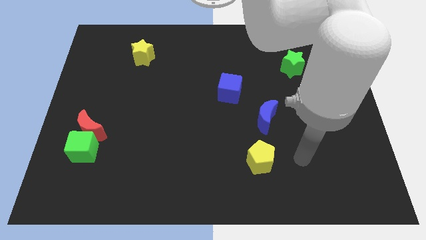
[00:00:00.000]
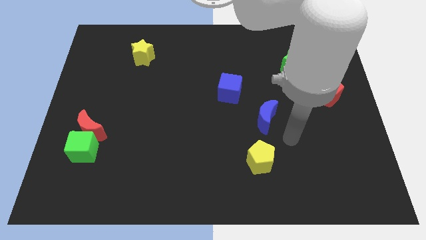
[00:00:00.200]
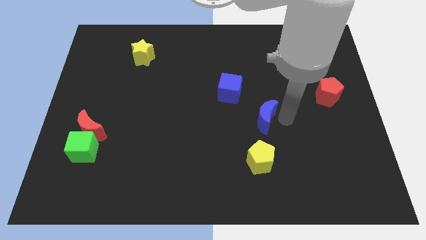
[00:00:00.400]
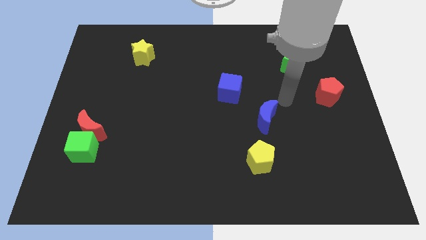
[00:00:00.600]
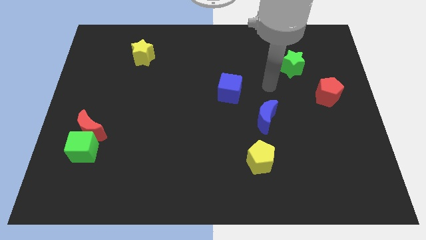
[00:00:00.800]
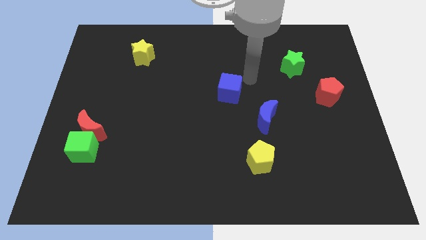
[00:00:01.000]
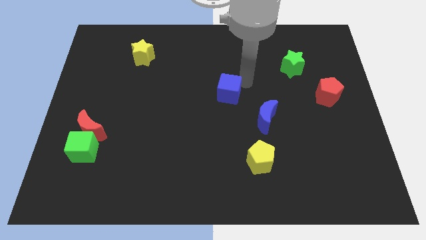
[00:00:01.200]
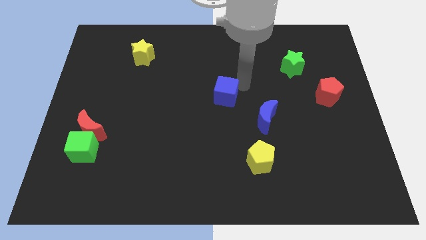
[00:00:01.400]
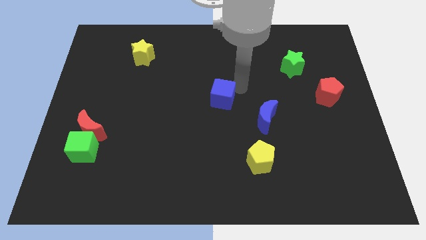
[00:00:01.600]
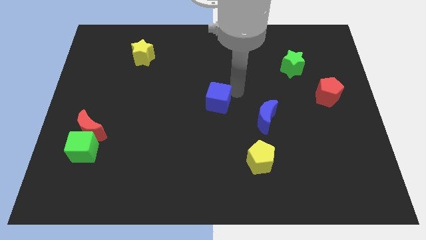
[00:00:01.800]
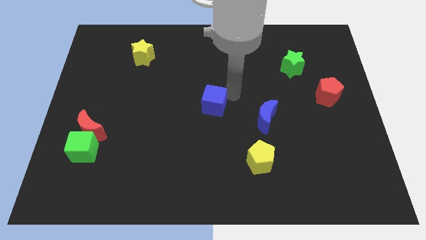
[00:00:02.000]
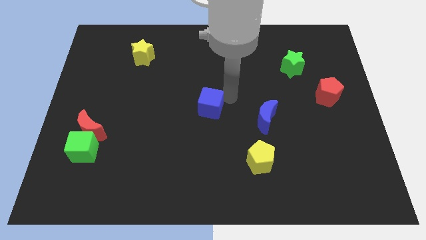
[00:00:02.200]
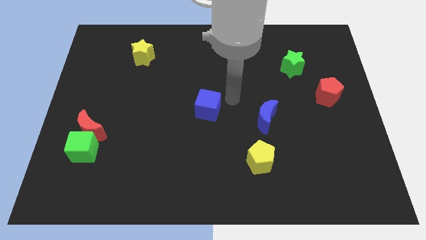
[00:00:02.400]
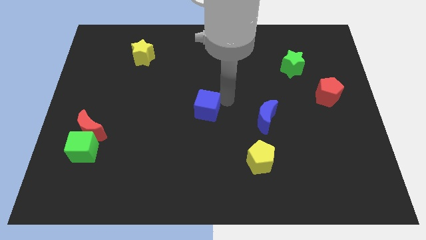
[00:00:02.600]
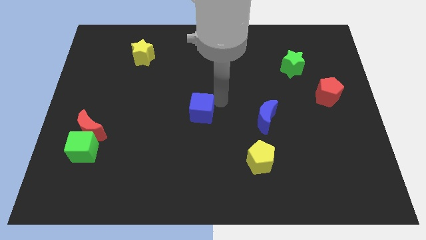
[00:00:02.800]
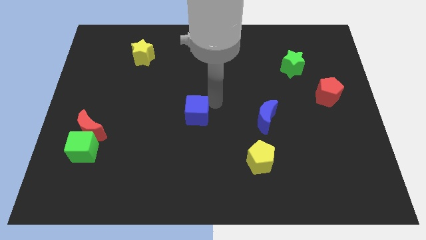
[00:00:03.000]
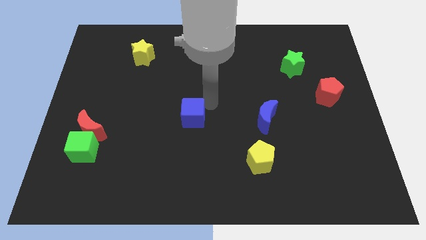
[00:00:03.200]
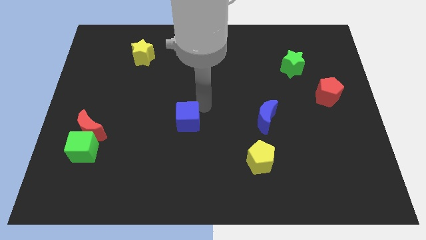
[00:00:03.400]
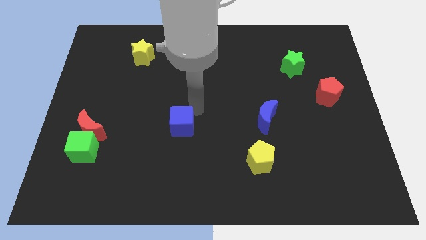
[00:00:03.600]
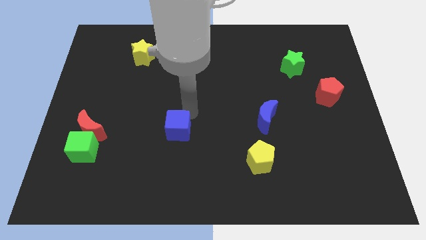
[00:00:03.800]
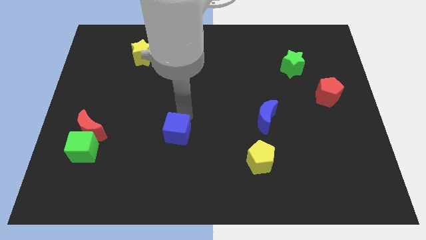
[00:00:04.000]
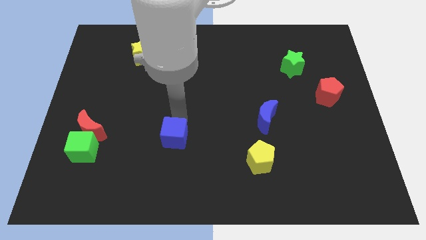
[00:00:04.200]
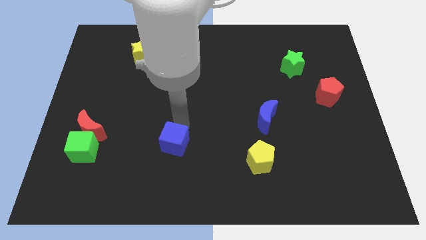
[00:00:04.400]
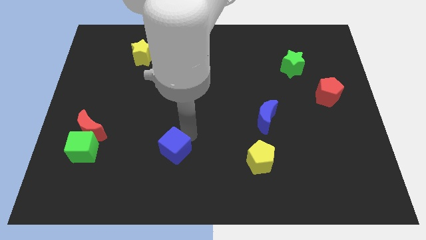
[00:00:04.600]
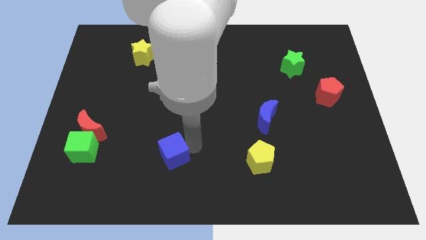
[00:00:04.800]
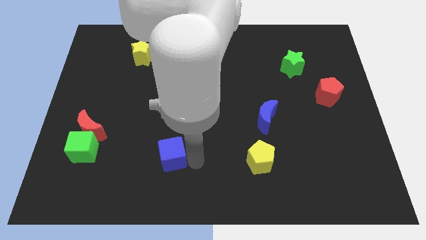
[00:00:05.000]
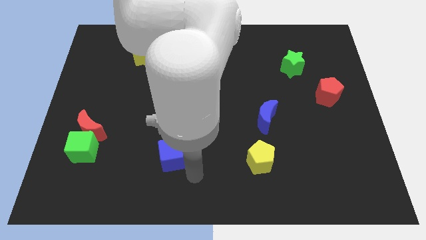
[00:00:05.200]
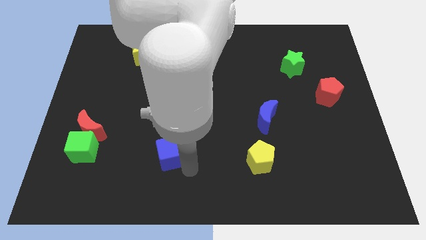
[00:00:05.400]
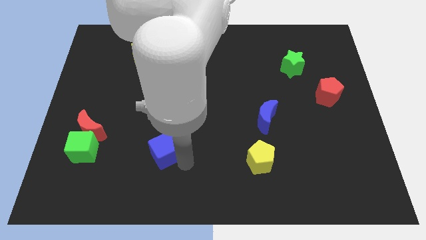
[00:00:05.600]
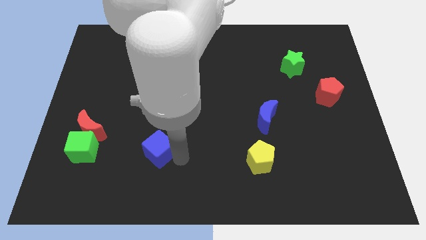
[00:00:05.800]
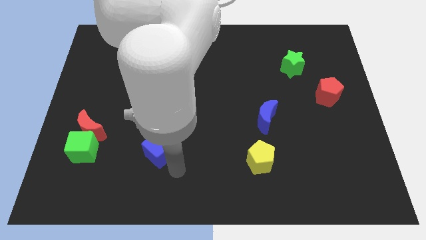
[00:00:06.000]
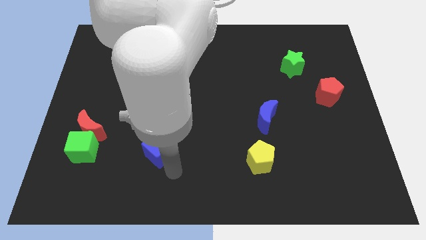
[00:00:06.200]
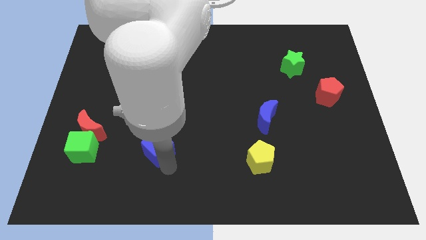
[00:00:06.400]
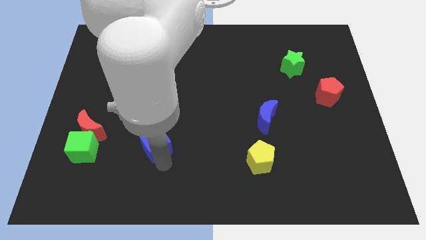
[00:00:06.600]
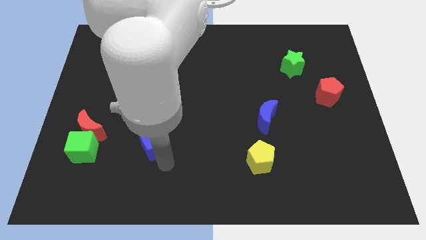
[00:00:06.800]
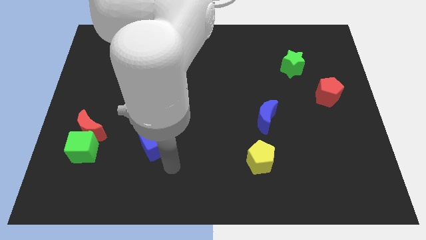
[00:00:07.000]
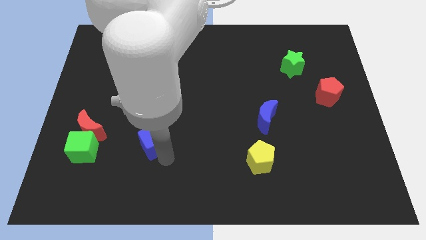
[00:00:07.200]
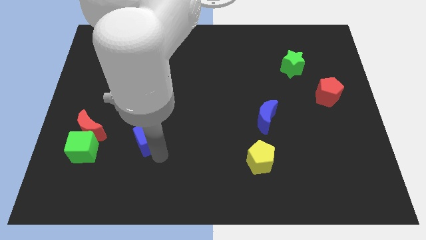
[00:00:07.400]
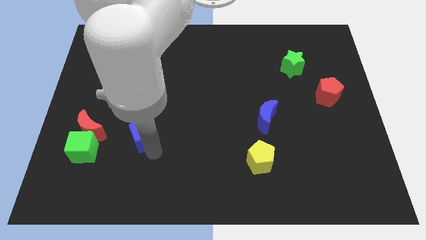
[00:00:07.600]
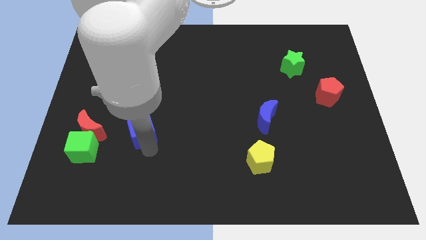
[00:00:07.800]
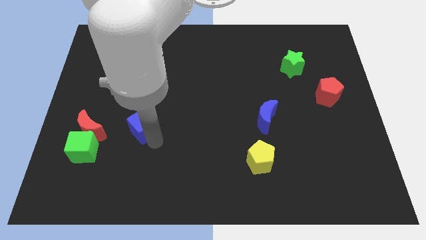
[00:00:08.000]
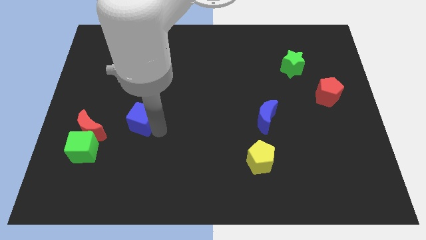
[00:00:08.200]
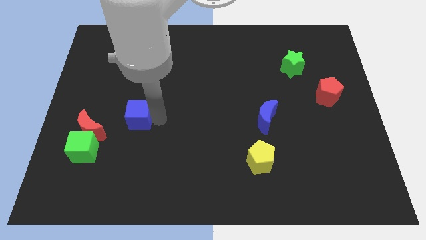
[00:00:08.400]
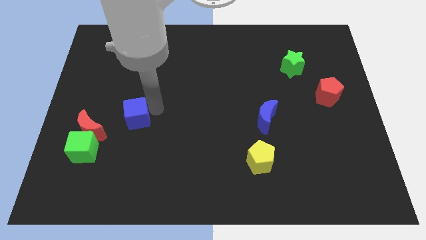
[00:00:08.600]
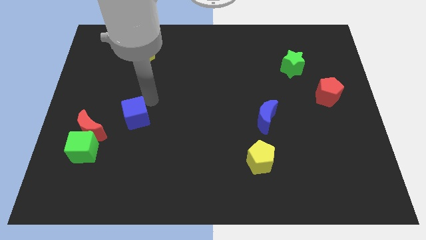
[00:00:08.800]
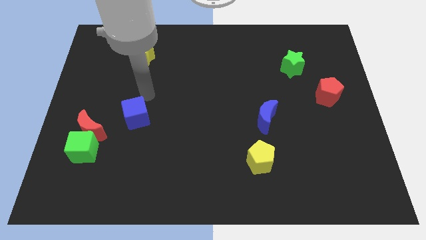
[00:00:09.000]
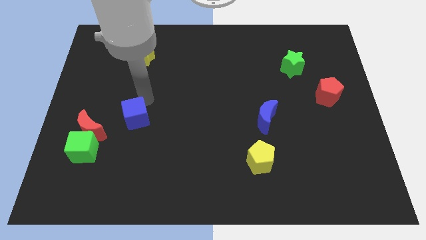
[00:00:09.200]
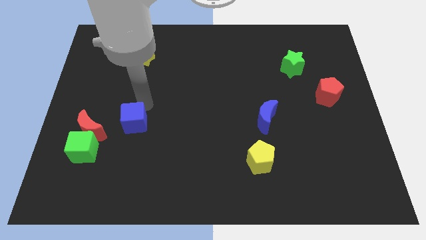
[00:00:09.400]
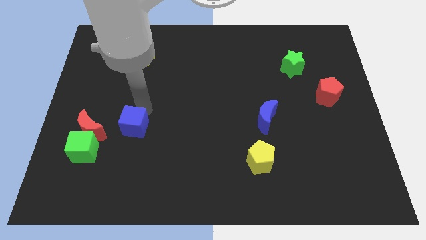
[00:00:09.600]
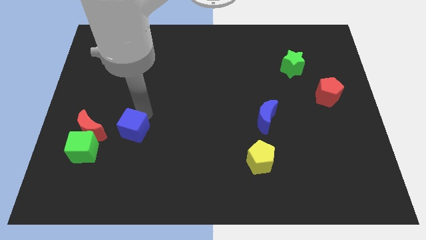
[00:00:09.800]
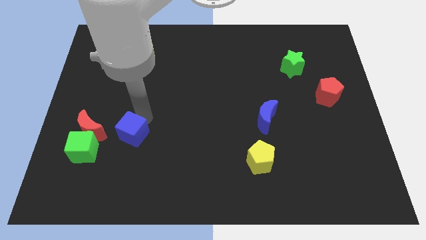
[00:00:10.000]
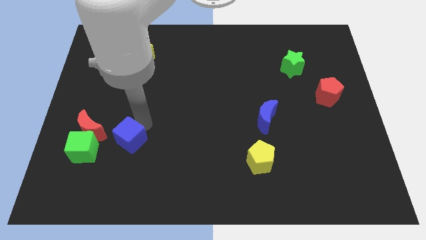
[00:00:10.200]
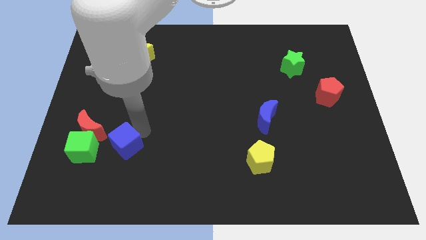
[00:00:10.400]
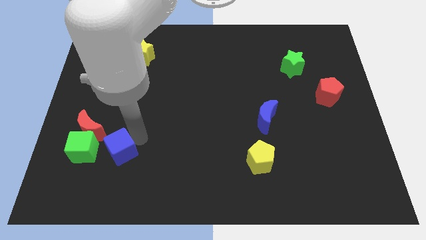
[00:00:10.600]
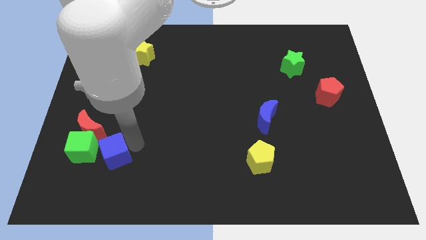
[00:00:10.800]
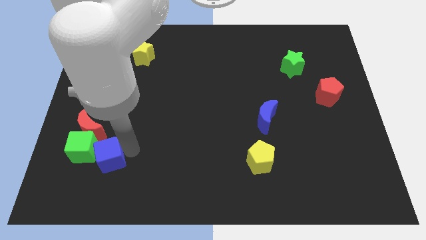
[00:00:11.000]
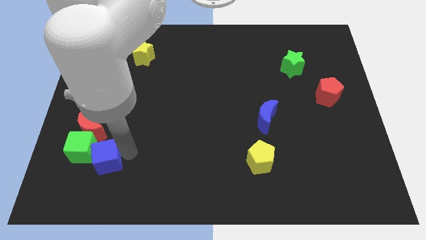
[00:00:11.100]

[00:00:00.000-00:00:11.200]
put the blue cube next to the green cube

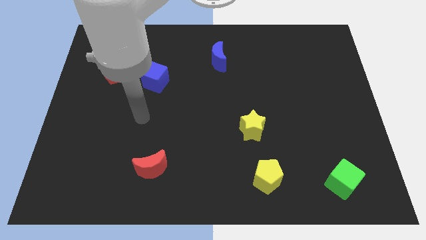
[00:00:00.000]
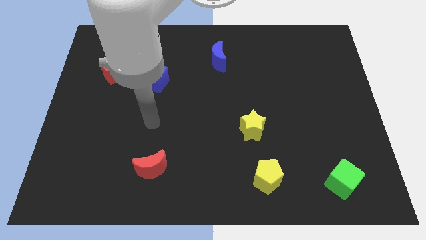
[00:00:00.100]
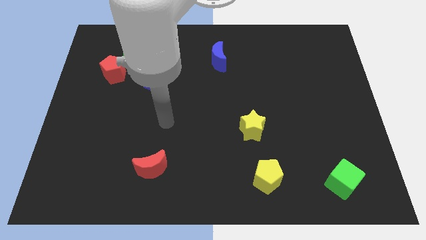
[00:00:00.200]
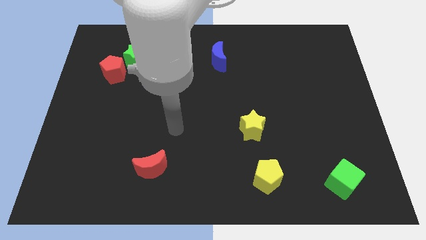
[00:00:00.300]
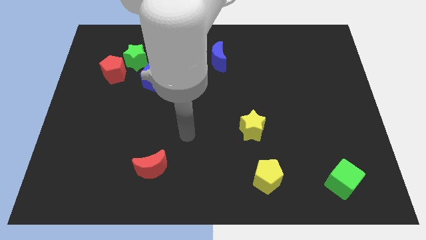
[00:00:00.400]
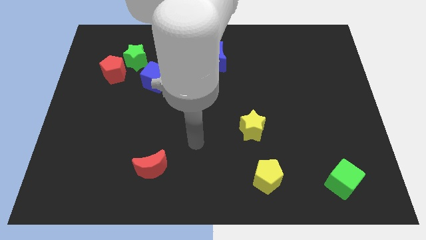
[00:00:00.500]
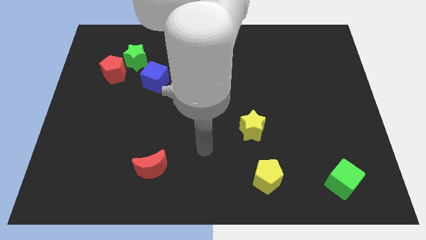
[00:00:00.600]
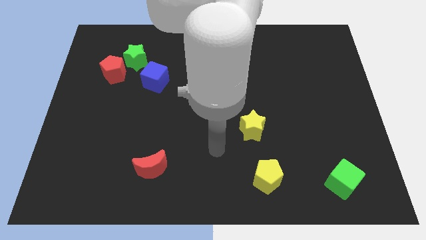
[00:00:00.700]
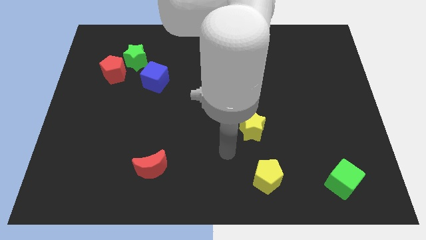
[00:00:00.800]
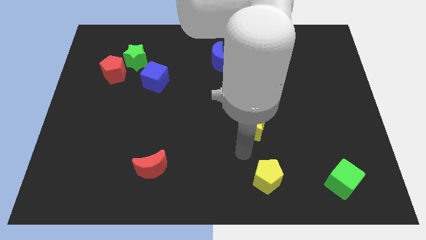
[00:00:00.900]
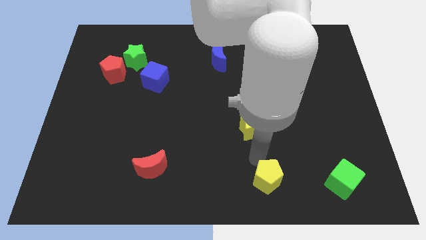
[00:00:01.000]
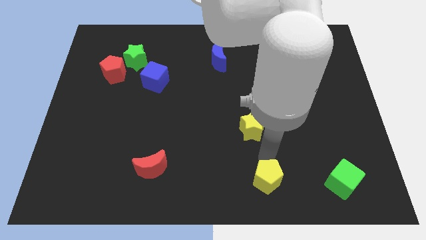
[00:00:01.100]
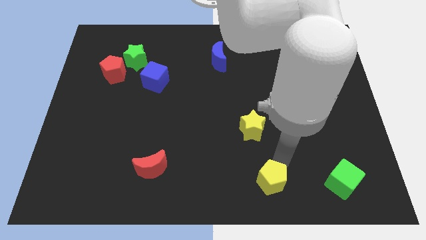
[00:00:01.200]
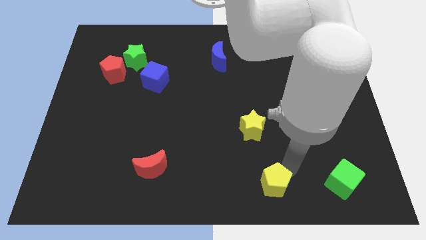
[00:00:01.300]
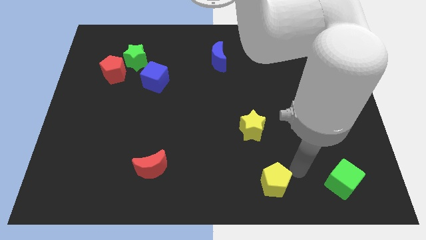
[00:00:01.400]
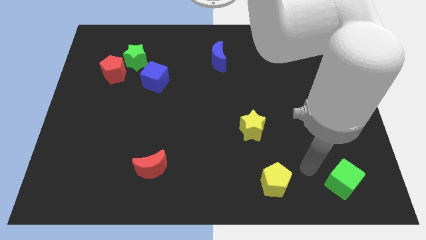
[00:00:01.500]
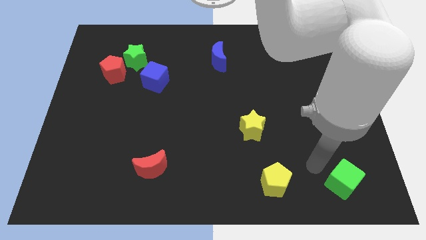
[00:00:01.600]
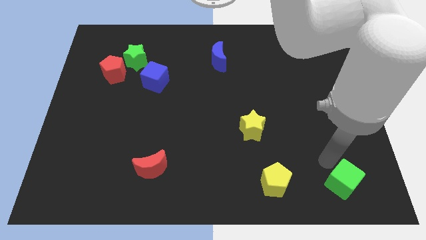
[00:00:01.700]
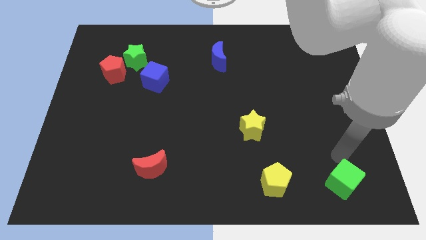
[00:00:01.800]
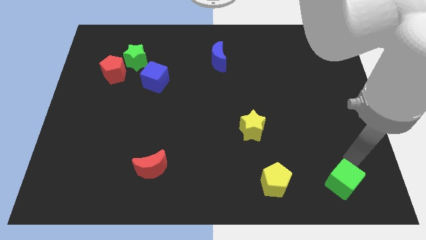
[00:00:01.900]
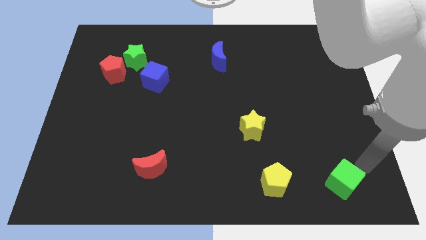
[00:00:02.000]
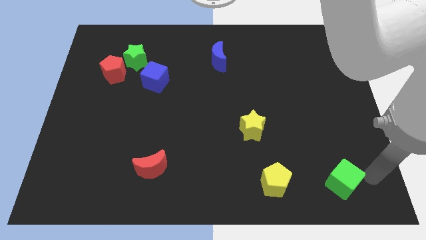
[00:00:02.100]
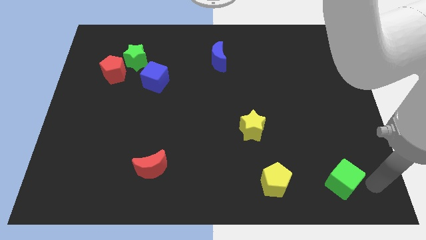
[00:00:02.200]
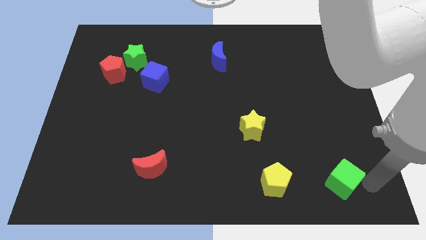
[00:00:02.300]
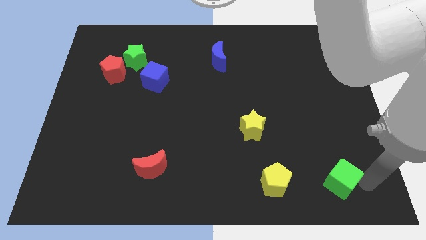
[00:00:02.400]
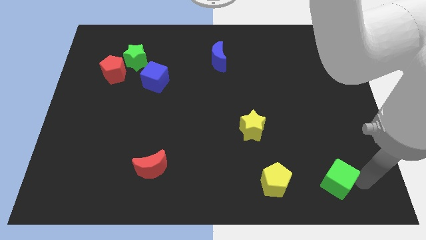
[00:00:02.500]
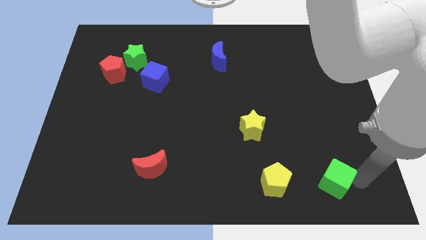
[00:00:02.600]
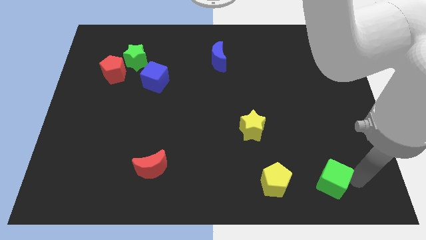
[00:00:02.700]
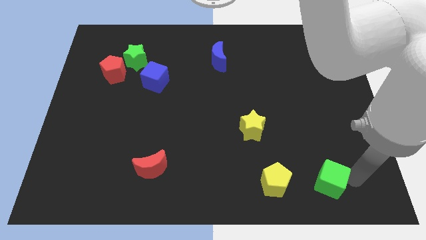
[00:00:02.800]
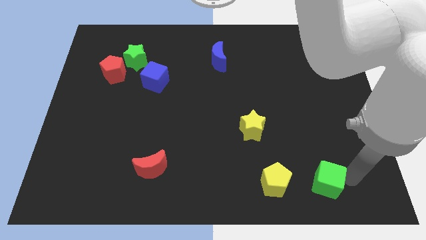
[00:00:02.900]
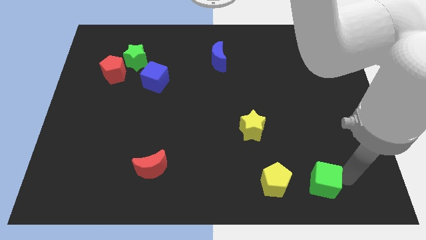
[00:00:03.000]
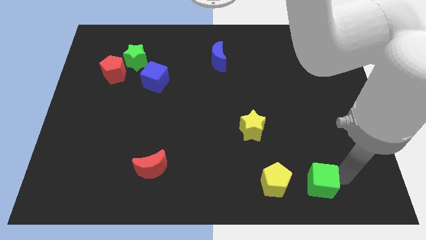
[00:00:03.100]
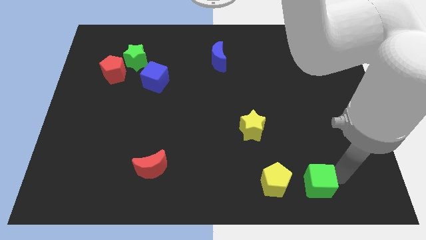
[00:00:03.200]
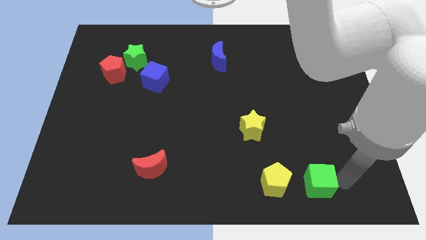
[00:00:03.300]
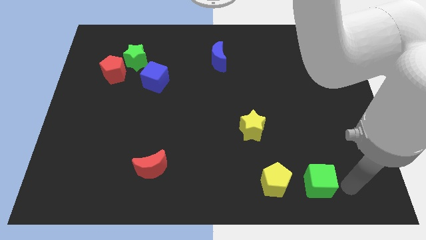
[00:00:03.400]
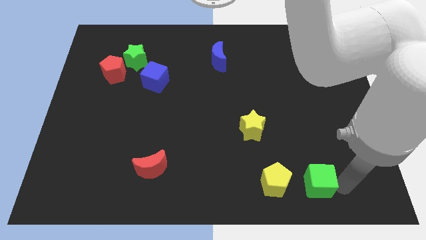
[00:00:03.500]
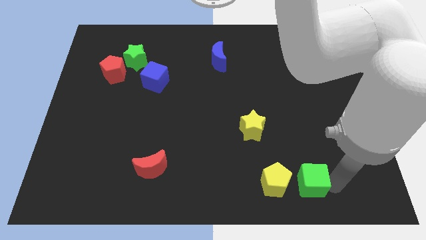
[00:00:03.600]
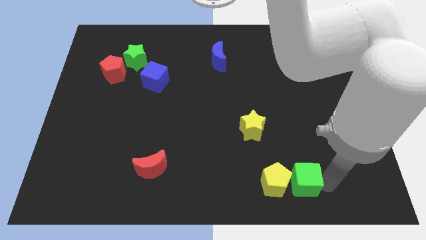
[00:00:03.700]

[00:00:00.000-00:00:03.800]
slide the green cube next to the yellow pentagon
